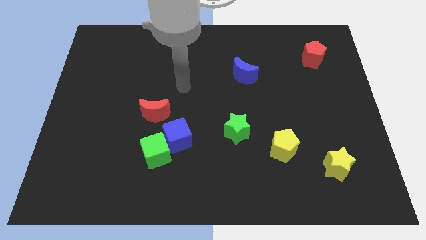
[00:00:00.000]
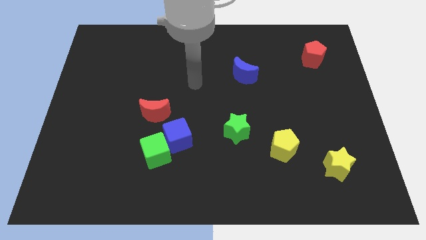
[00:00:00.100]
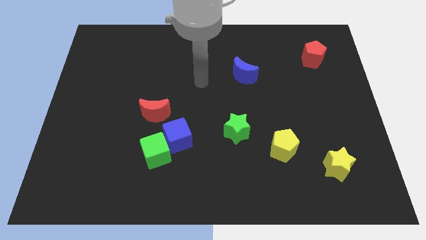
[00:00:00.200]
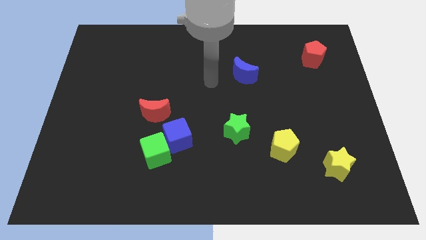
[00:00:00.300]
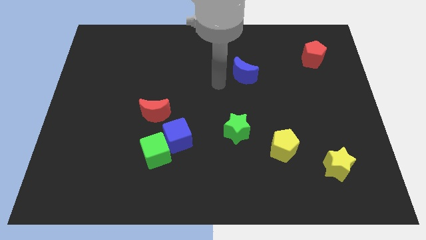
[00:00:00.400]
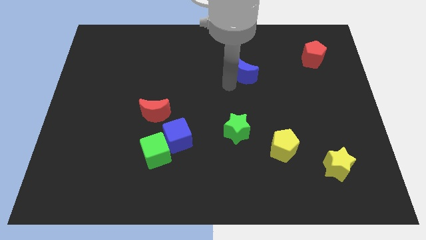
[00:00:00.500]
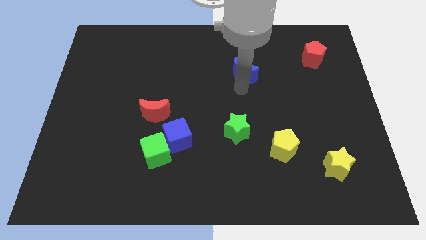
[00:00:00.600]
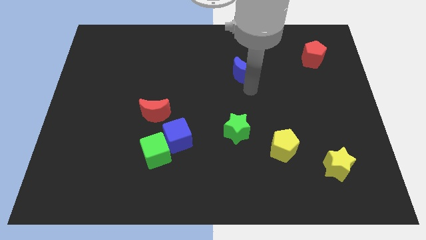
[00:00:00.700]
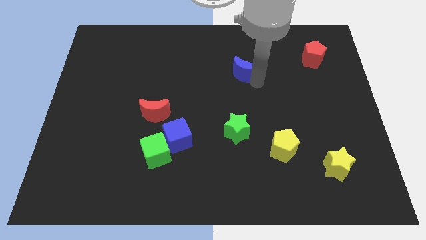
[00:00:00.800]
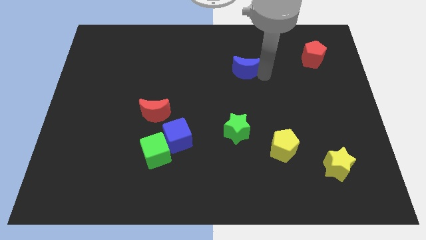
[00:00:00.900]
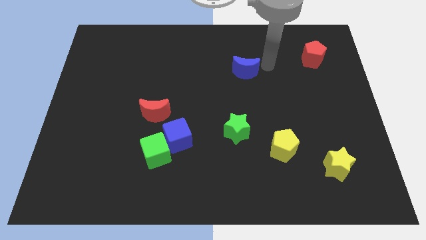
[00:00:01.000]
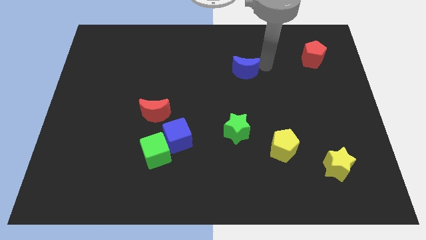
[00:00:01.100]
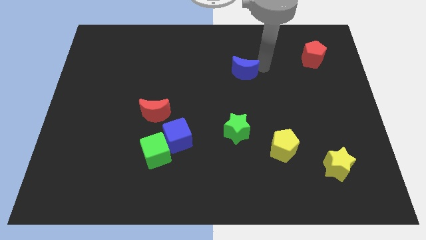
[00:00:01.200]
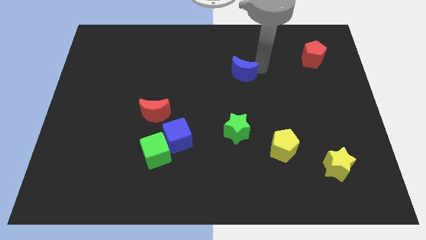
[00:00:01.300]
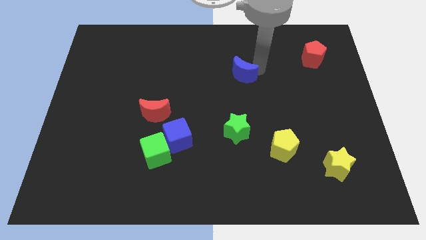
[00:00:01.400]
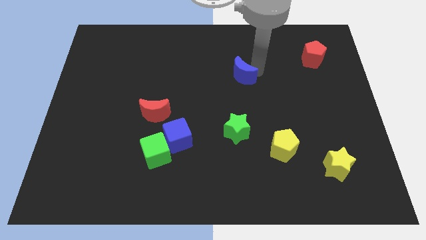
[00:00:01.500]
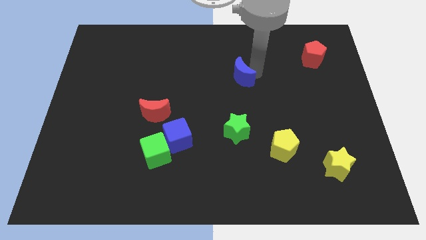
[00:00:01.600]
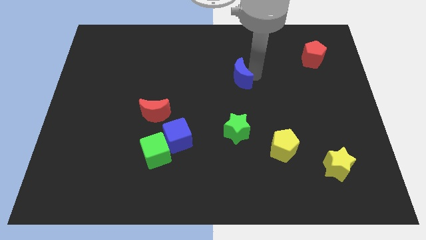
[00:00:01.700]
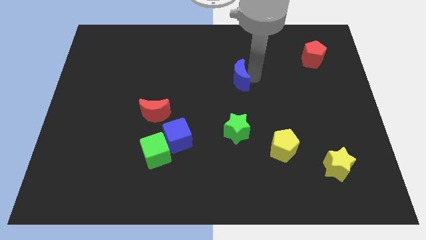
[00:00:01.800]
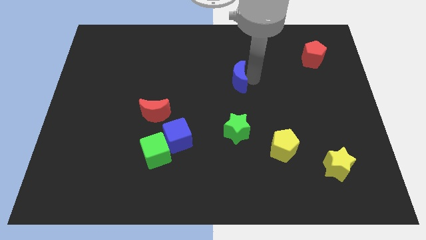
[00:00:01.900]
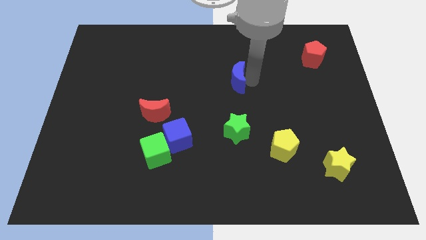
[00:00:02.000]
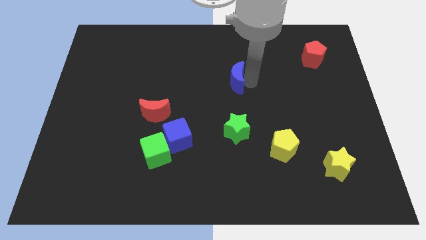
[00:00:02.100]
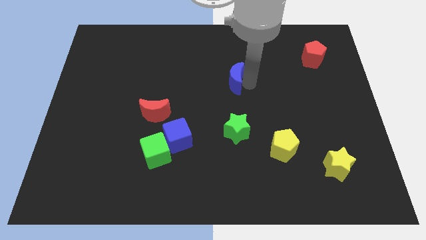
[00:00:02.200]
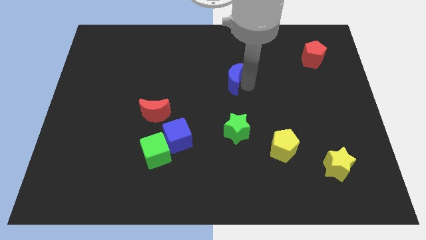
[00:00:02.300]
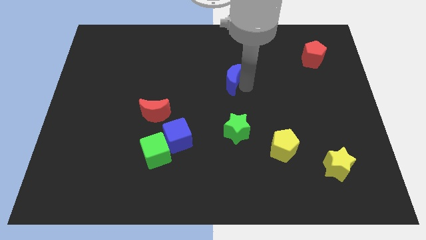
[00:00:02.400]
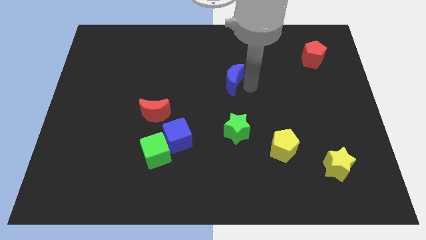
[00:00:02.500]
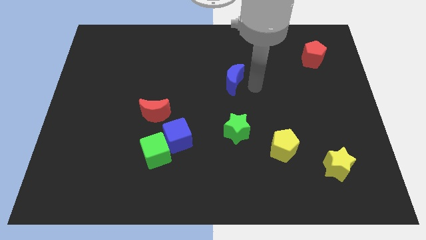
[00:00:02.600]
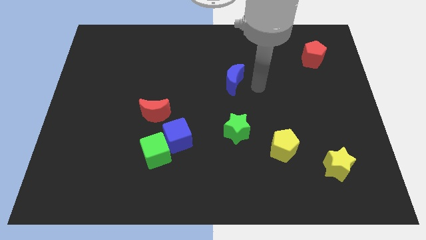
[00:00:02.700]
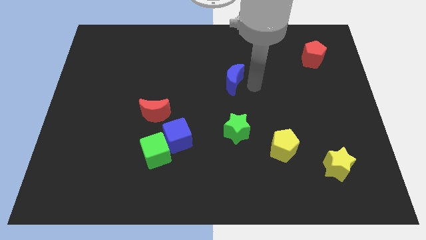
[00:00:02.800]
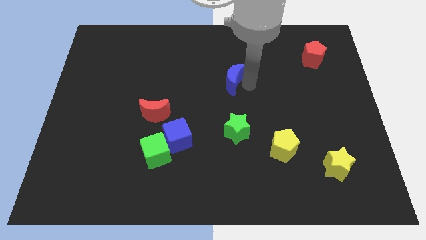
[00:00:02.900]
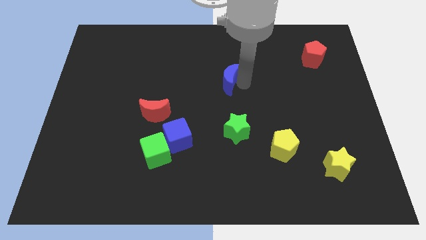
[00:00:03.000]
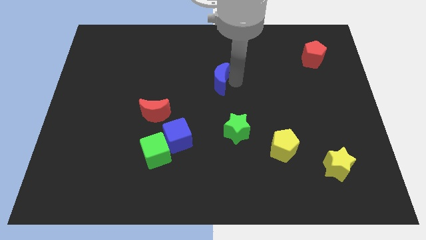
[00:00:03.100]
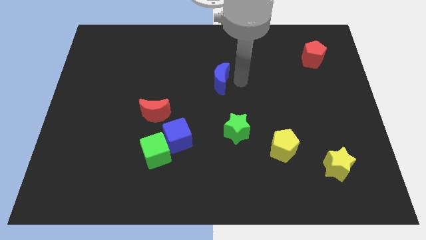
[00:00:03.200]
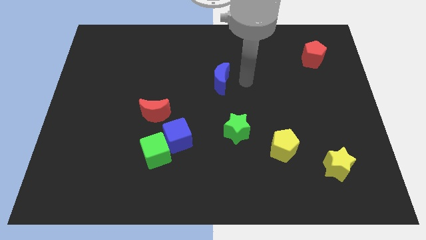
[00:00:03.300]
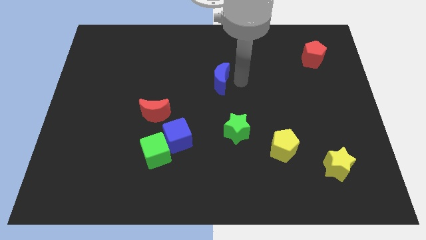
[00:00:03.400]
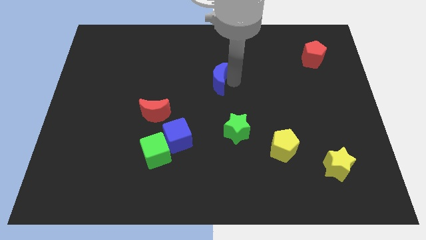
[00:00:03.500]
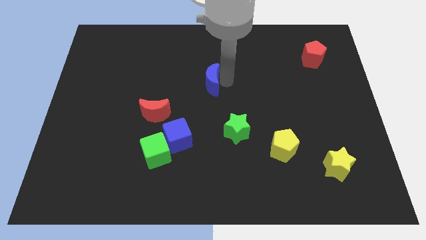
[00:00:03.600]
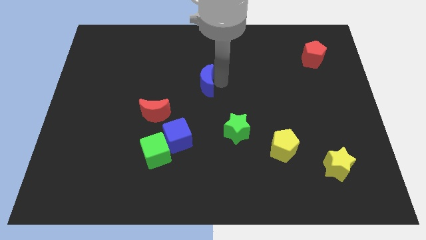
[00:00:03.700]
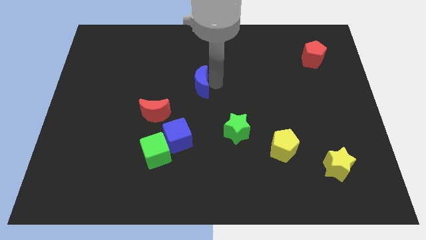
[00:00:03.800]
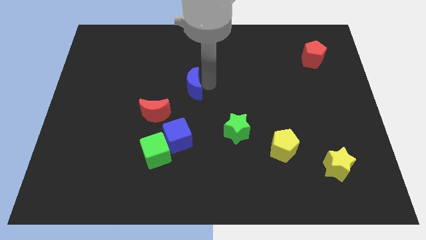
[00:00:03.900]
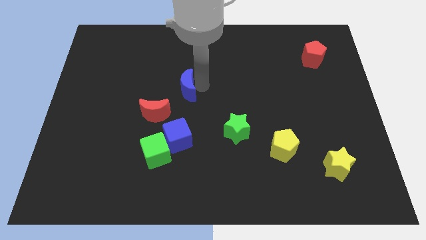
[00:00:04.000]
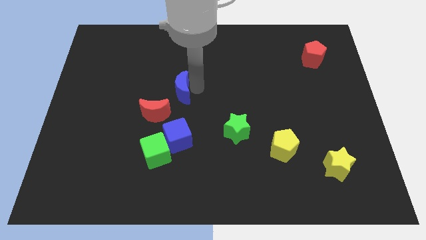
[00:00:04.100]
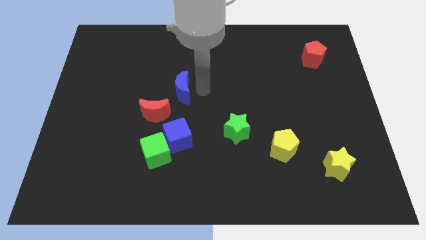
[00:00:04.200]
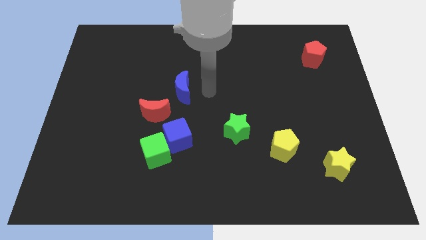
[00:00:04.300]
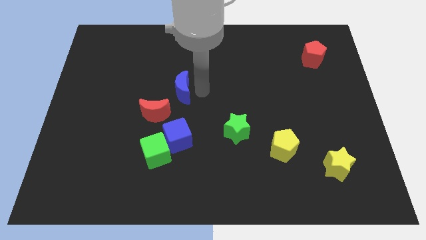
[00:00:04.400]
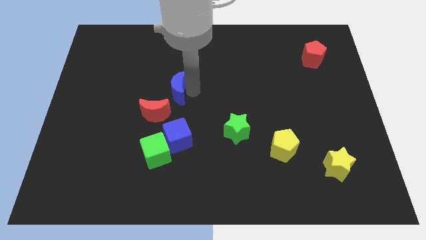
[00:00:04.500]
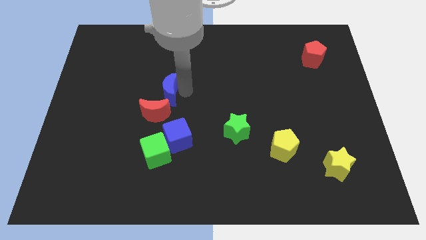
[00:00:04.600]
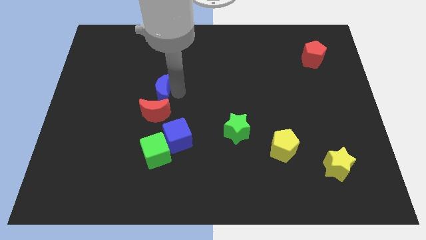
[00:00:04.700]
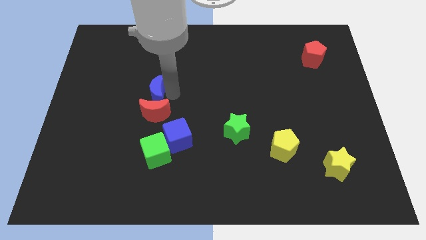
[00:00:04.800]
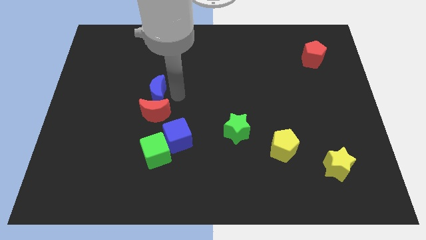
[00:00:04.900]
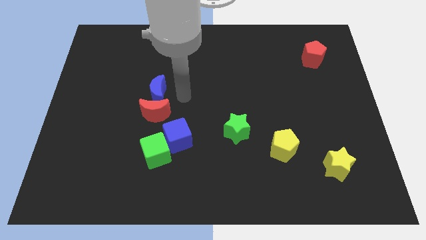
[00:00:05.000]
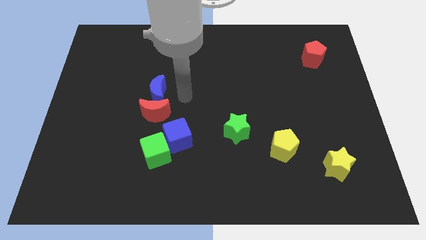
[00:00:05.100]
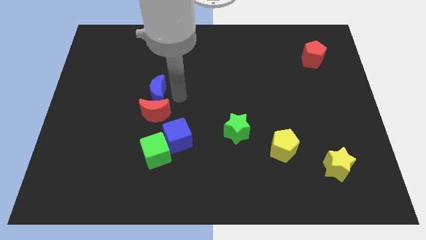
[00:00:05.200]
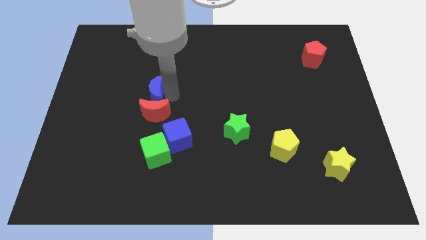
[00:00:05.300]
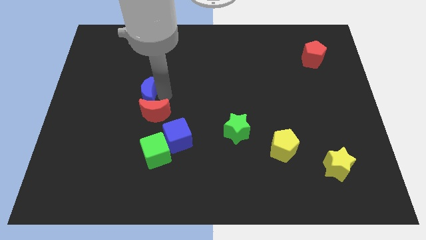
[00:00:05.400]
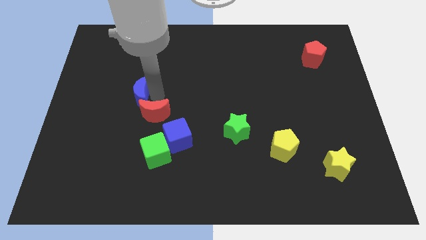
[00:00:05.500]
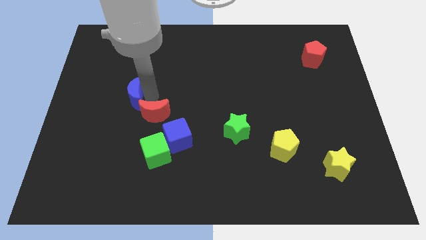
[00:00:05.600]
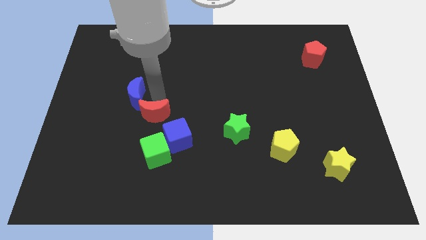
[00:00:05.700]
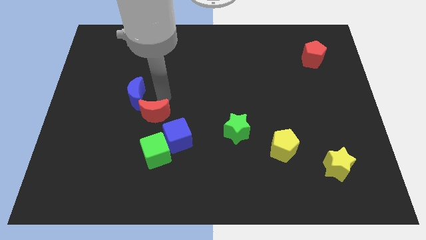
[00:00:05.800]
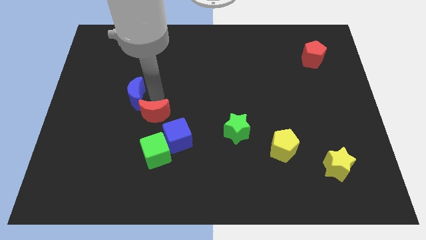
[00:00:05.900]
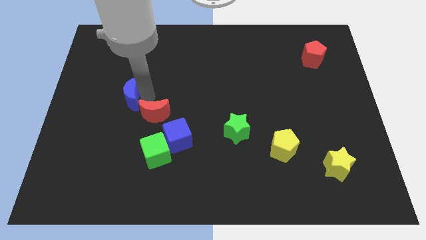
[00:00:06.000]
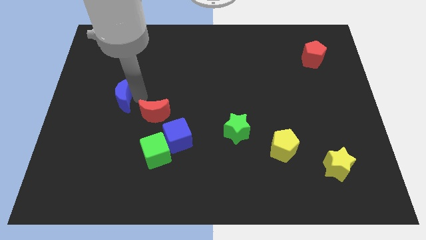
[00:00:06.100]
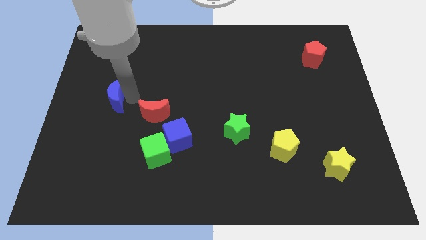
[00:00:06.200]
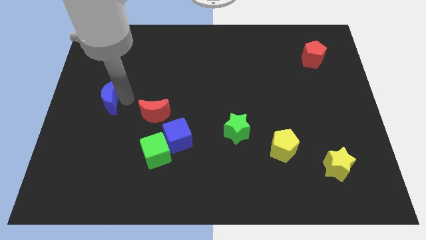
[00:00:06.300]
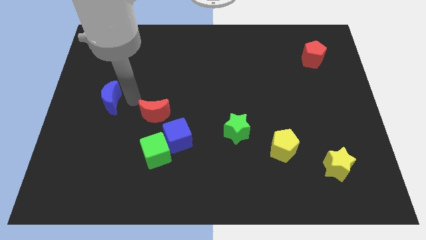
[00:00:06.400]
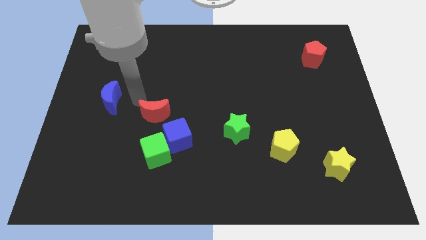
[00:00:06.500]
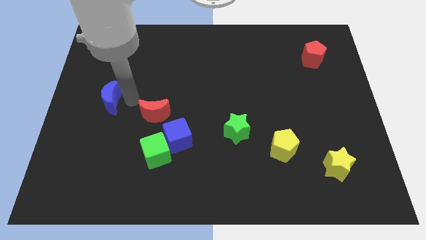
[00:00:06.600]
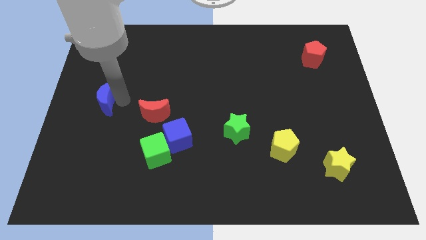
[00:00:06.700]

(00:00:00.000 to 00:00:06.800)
slide the blue moon to the left side
